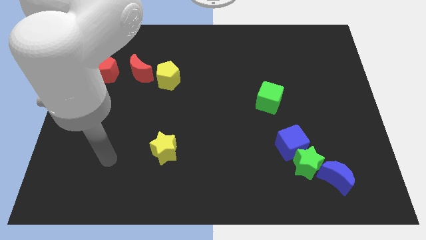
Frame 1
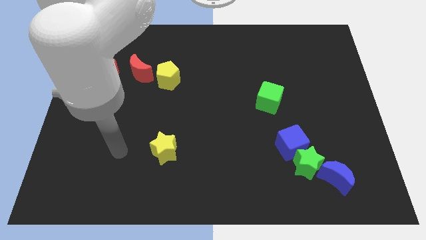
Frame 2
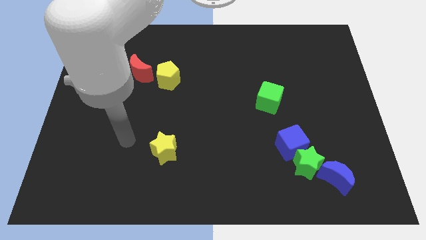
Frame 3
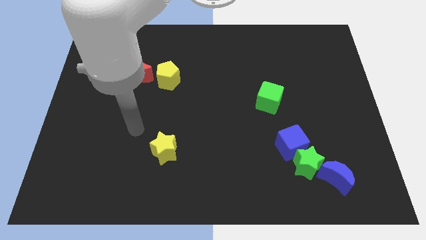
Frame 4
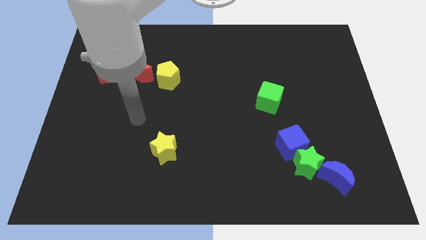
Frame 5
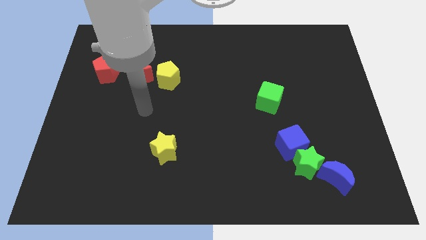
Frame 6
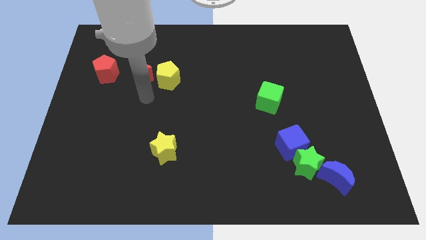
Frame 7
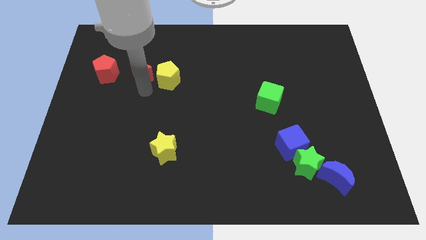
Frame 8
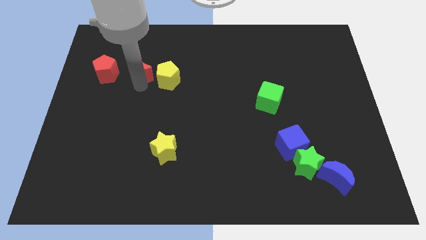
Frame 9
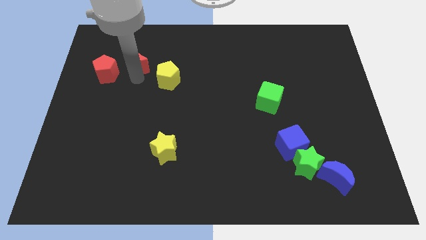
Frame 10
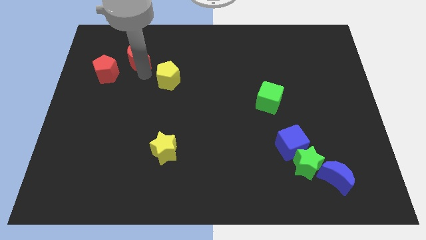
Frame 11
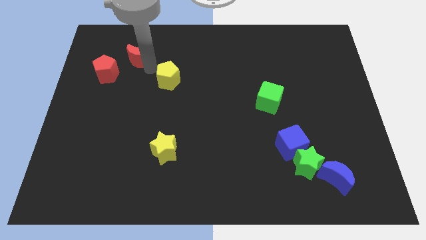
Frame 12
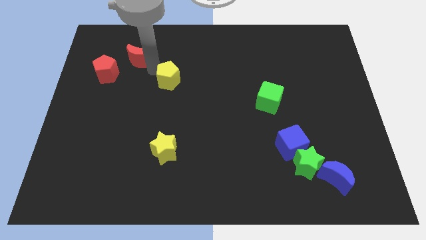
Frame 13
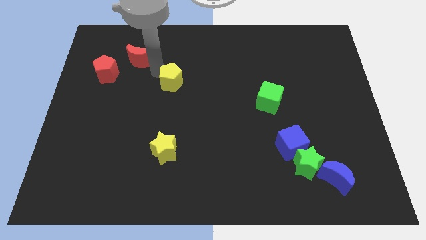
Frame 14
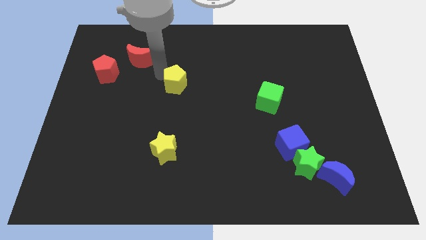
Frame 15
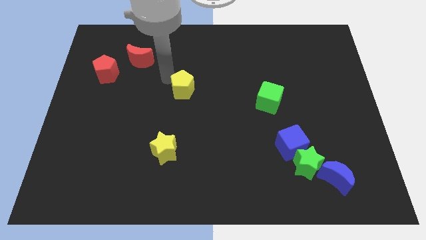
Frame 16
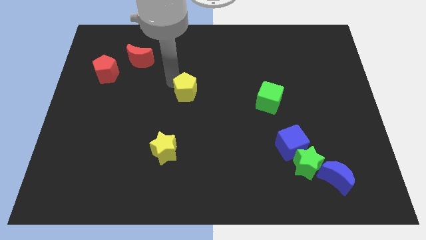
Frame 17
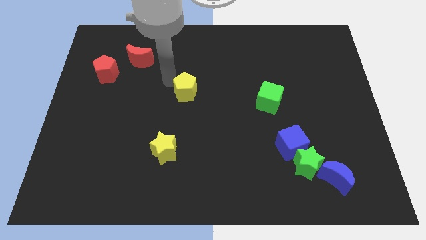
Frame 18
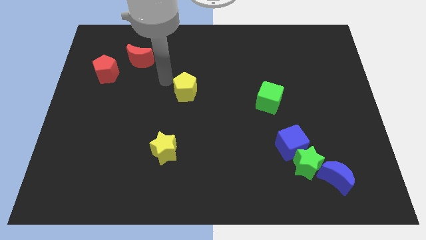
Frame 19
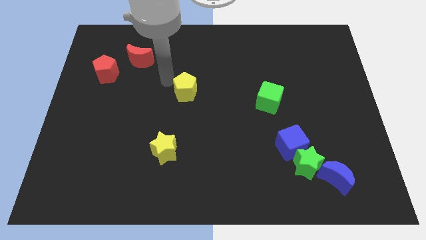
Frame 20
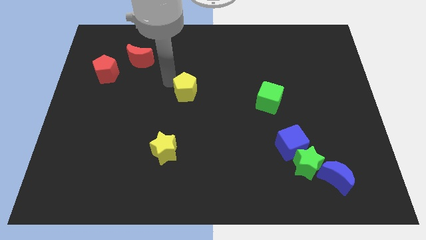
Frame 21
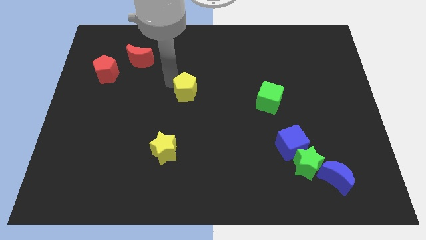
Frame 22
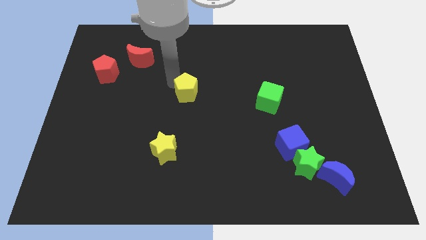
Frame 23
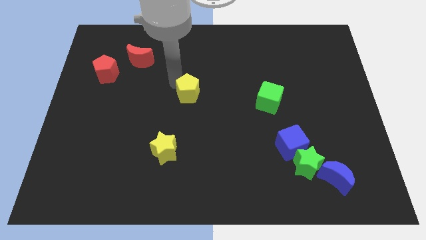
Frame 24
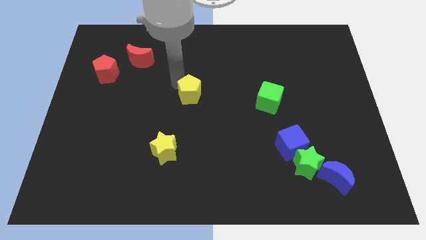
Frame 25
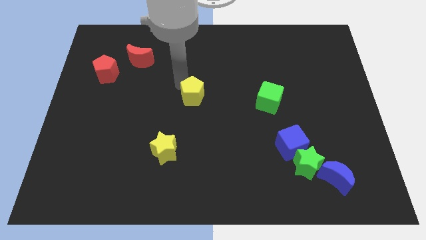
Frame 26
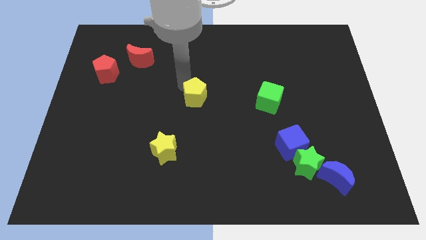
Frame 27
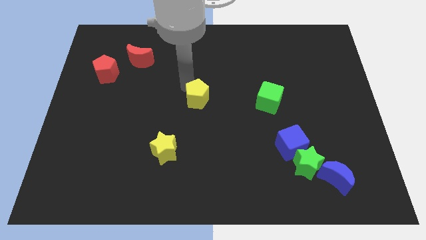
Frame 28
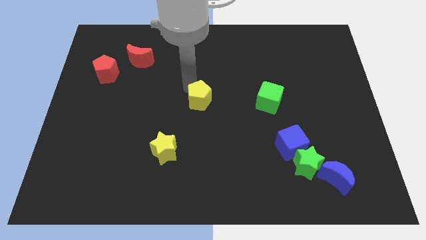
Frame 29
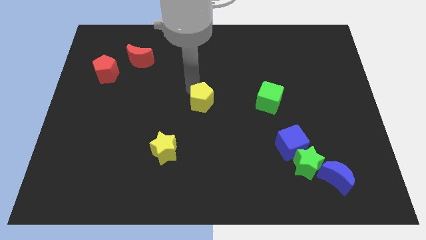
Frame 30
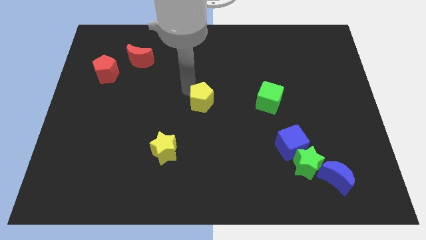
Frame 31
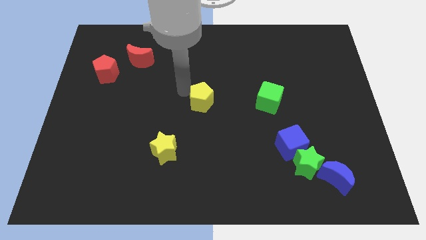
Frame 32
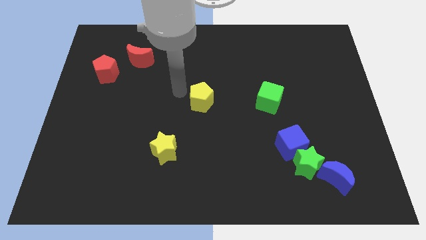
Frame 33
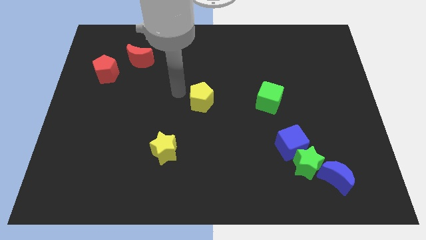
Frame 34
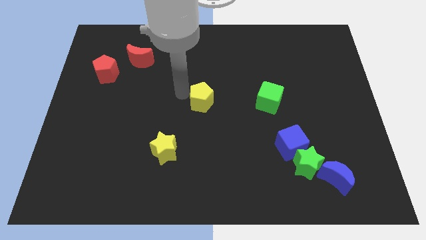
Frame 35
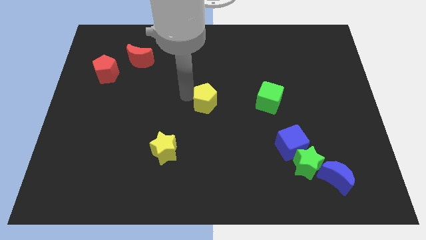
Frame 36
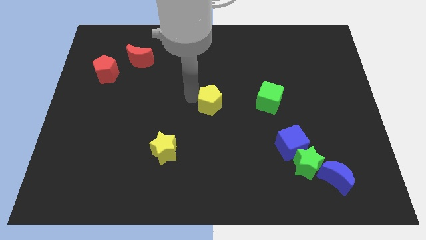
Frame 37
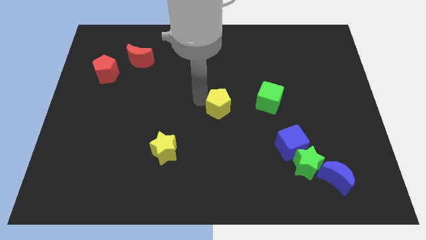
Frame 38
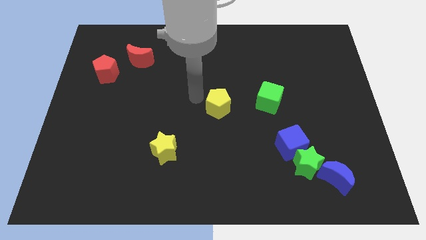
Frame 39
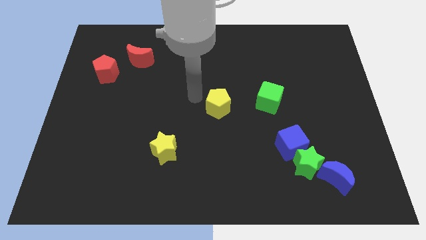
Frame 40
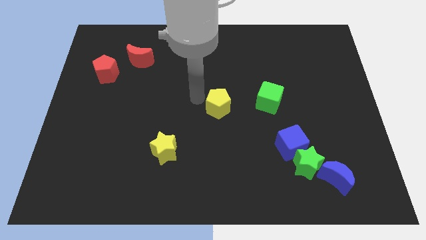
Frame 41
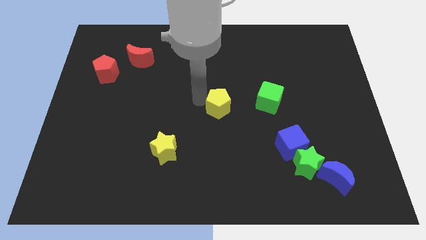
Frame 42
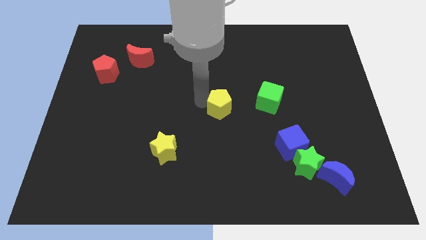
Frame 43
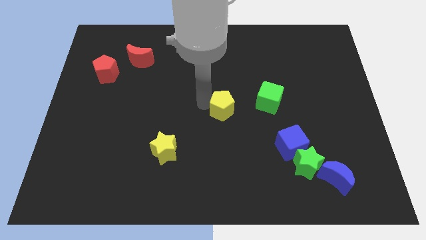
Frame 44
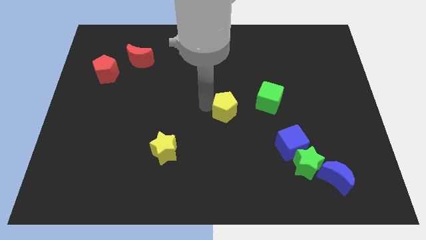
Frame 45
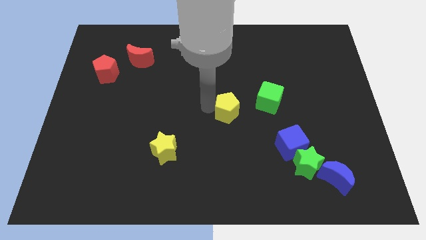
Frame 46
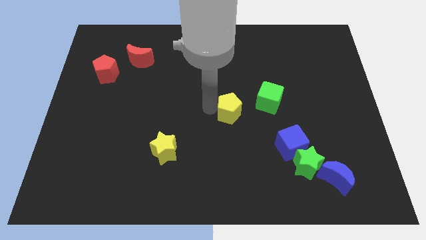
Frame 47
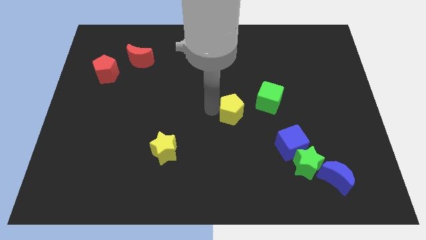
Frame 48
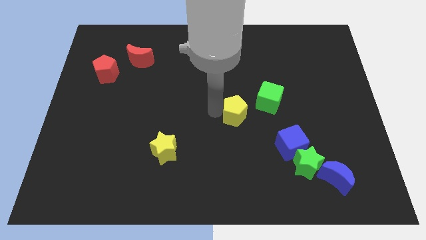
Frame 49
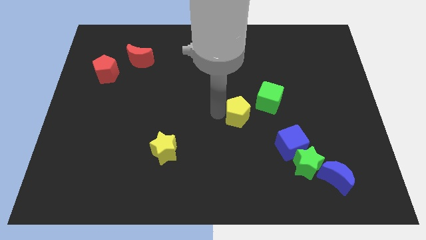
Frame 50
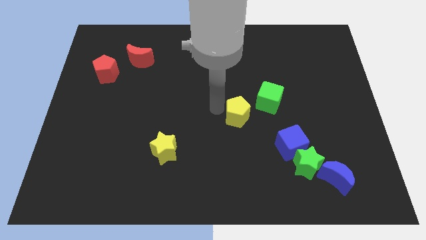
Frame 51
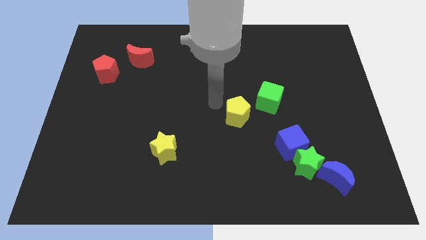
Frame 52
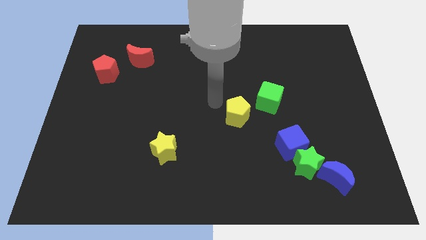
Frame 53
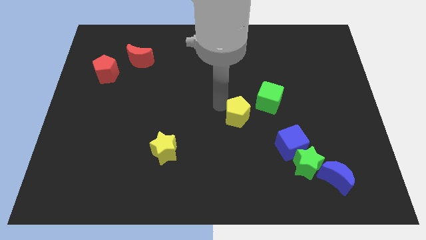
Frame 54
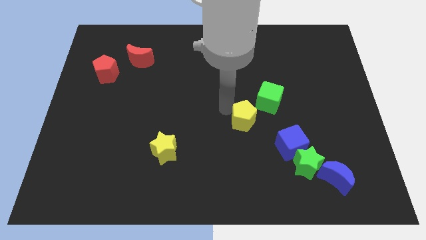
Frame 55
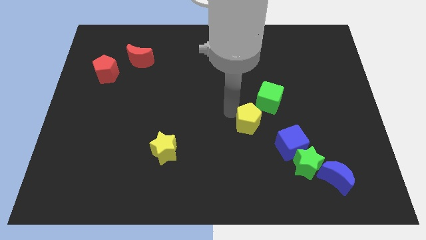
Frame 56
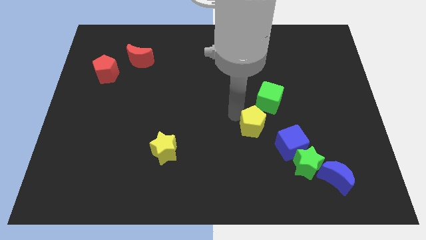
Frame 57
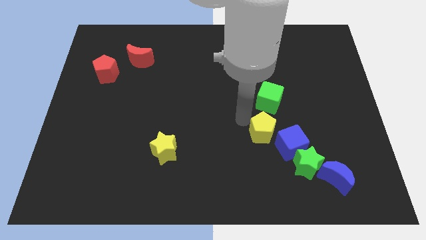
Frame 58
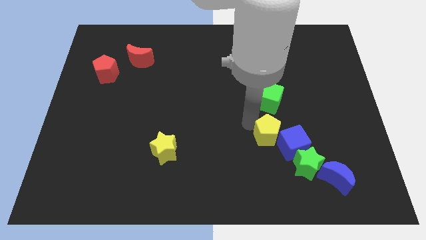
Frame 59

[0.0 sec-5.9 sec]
put the yellow pentagon next to the blue cube
